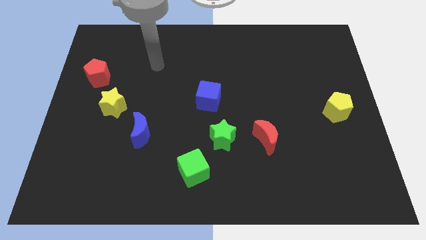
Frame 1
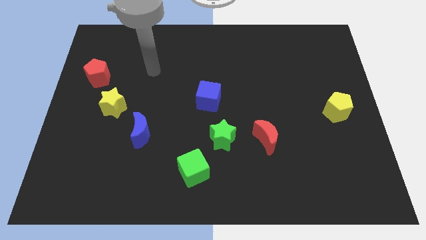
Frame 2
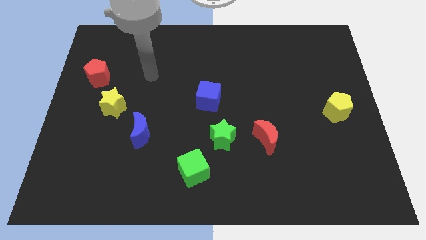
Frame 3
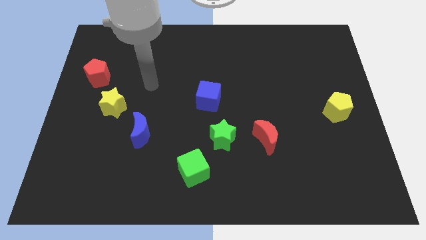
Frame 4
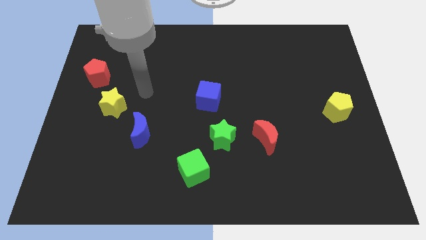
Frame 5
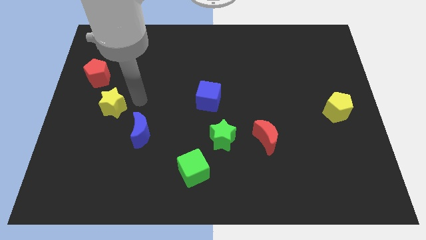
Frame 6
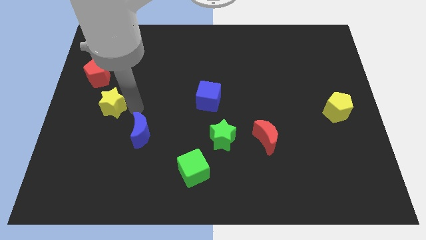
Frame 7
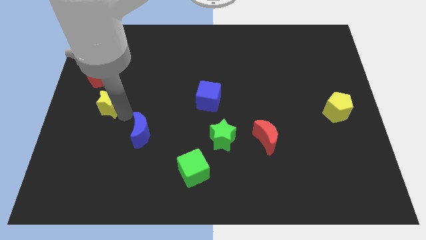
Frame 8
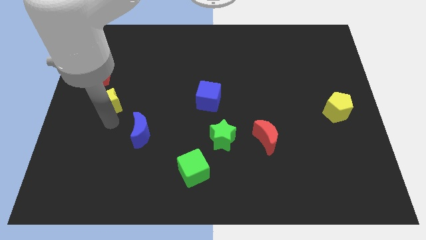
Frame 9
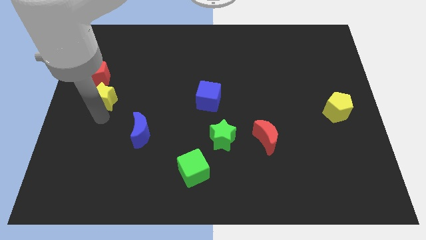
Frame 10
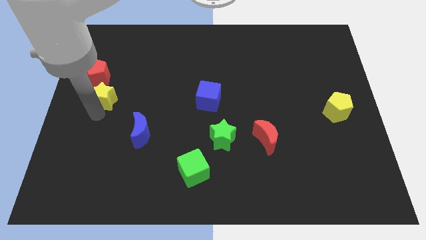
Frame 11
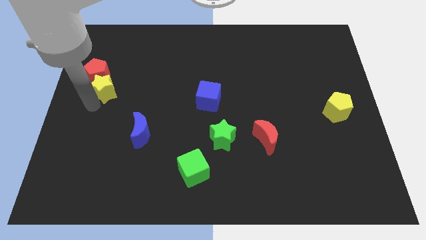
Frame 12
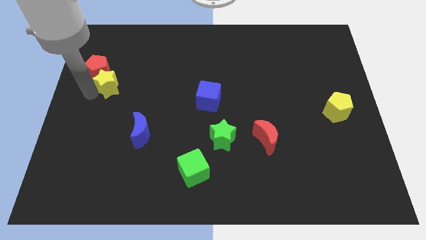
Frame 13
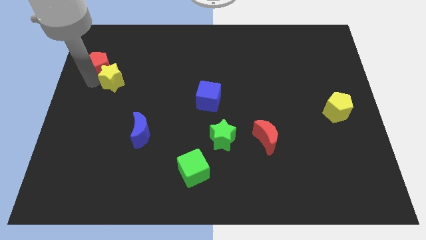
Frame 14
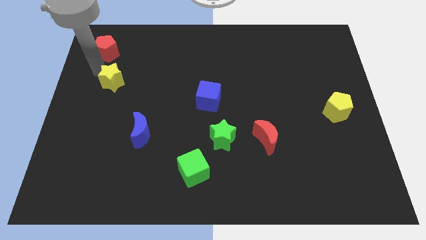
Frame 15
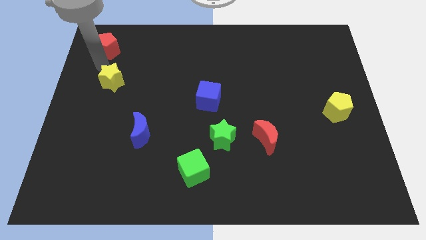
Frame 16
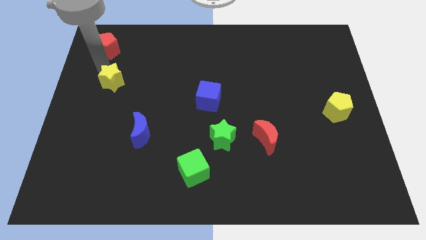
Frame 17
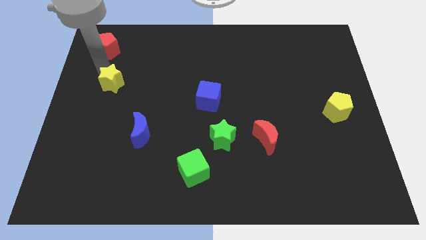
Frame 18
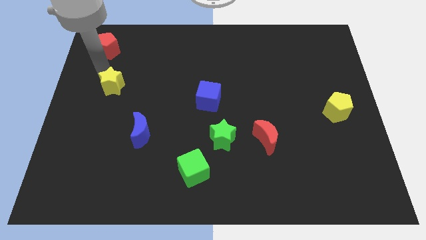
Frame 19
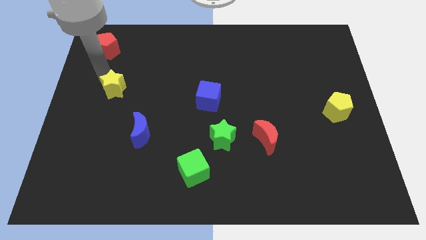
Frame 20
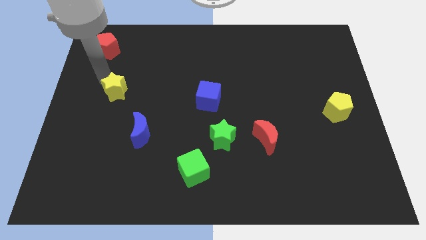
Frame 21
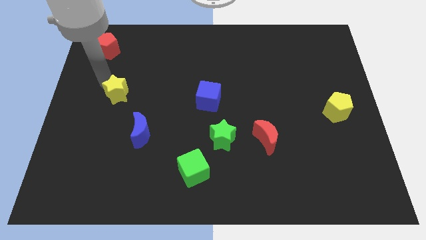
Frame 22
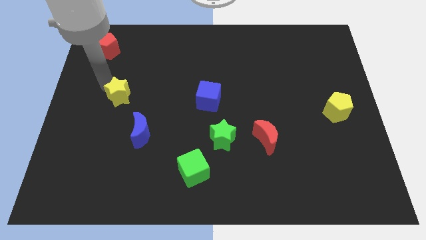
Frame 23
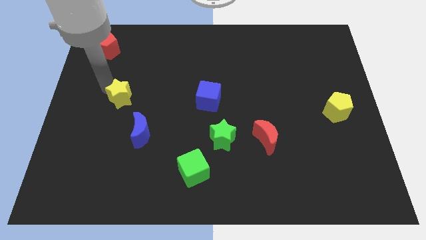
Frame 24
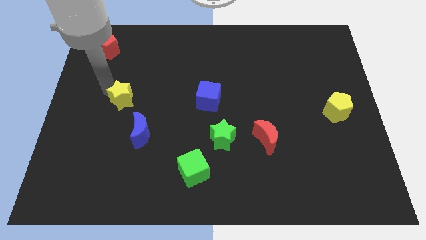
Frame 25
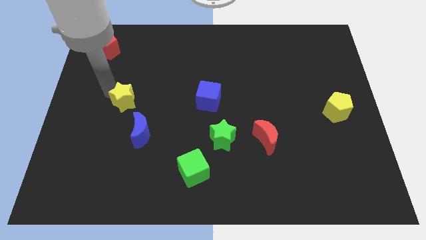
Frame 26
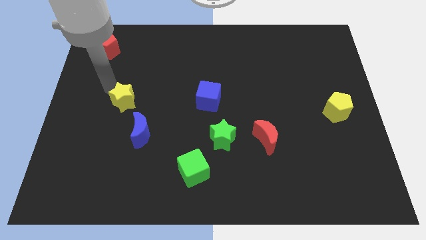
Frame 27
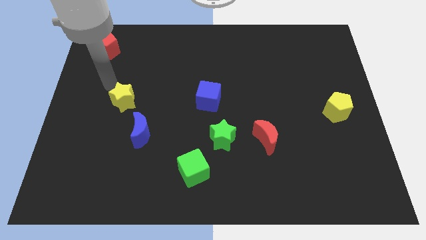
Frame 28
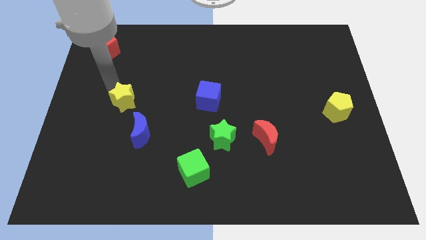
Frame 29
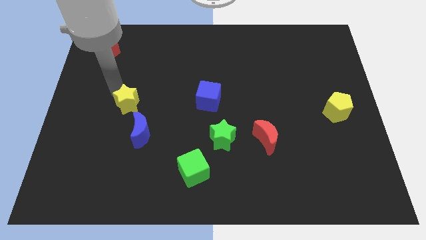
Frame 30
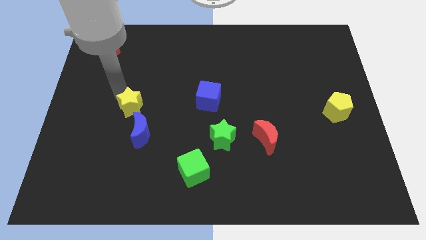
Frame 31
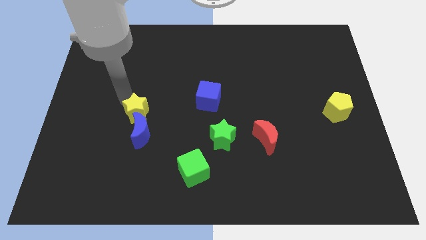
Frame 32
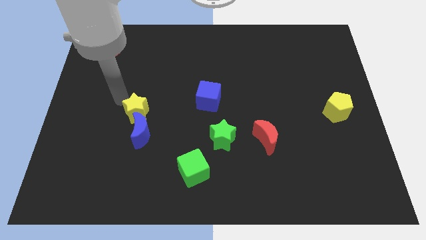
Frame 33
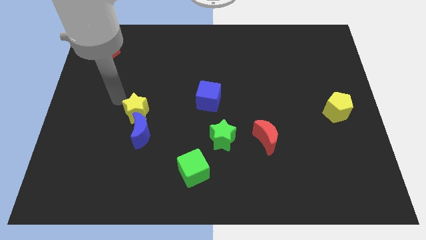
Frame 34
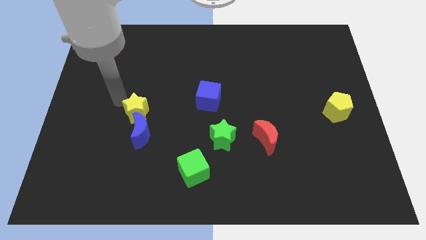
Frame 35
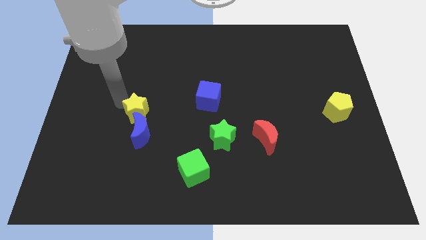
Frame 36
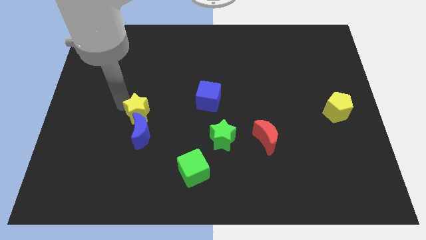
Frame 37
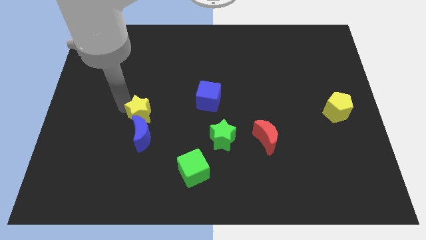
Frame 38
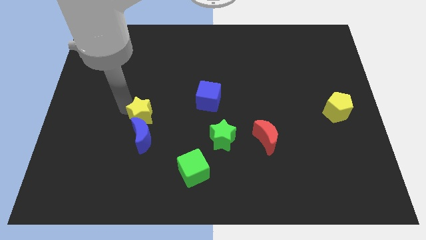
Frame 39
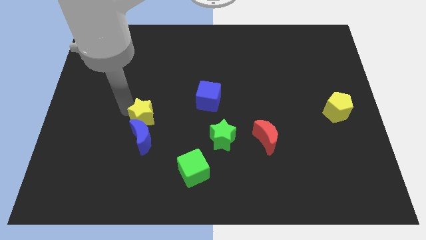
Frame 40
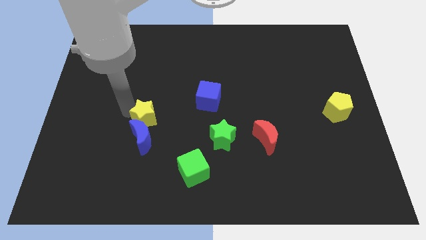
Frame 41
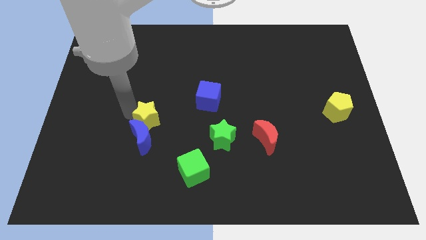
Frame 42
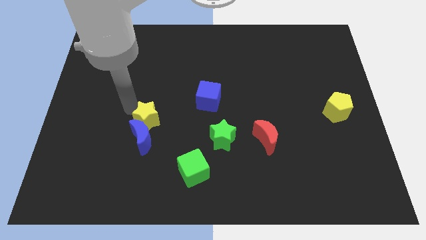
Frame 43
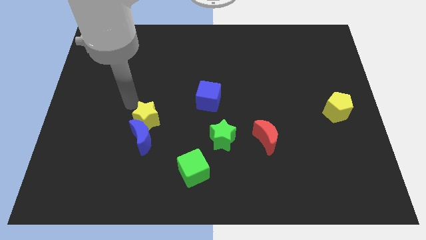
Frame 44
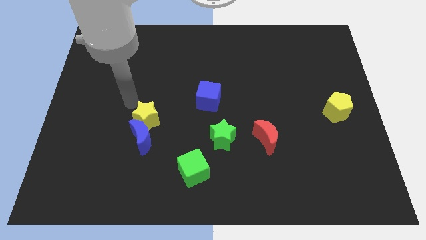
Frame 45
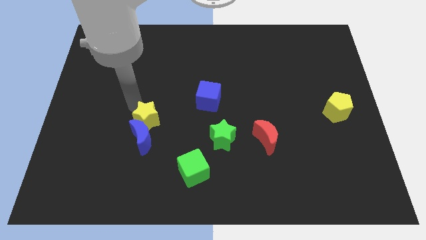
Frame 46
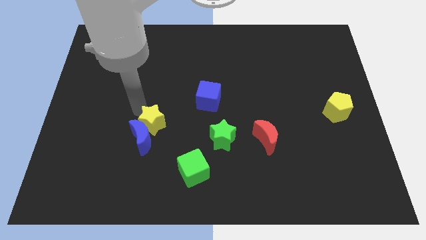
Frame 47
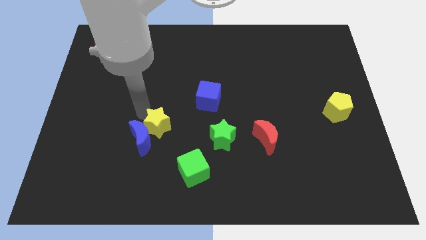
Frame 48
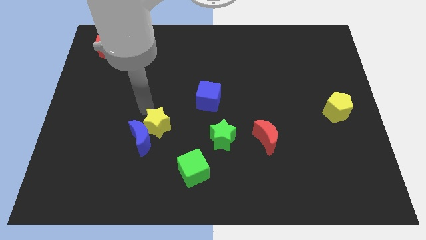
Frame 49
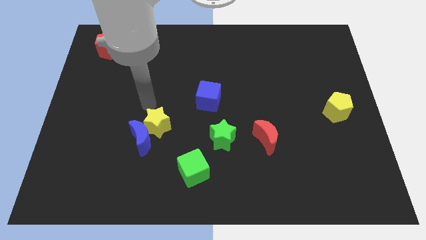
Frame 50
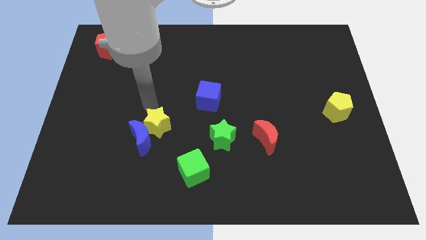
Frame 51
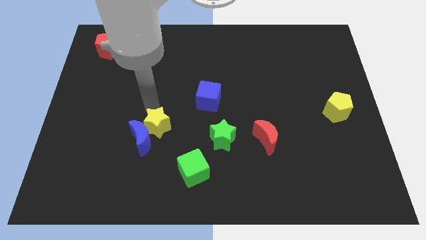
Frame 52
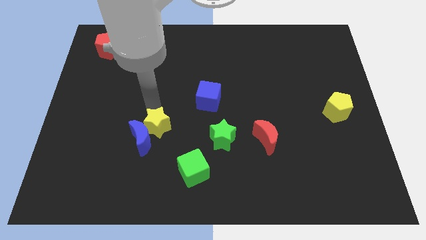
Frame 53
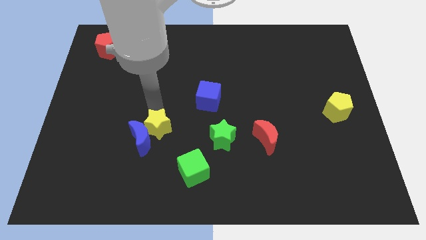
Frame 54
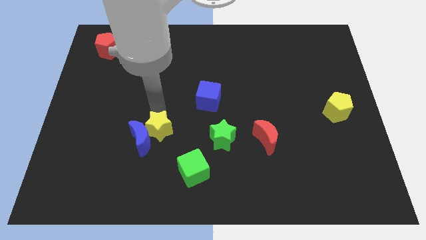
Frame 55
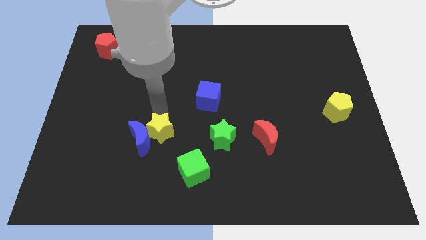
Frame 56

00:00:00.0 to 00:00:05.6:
move the yellow star diagonally up and to the left of the green cube

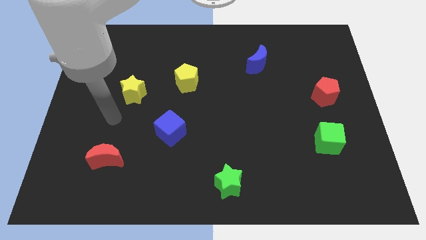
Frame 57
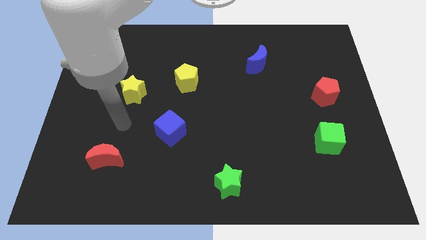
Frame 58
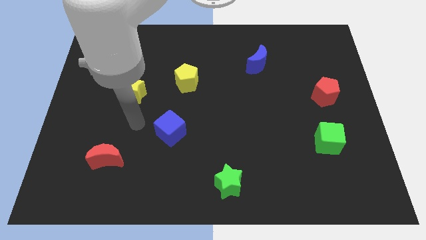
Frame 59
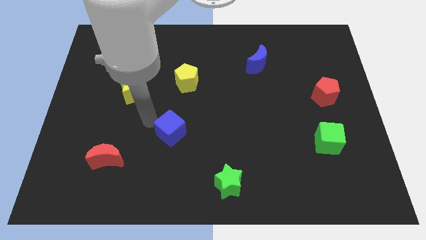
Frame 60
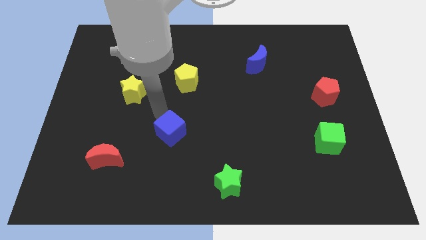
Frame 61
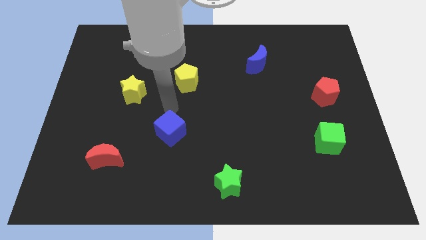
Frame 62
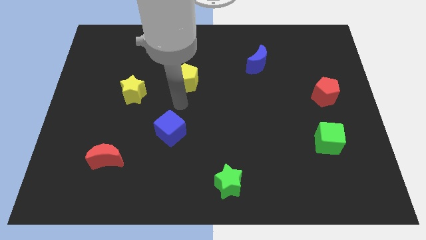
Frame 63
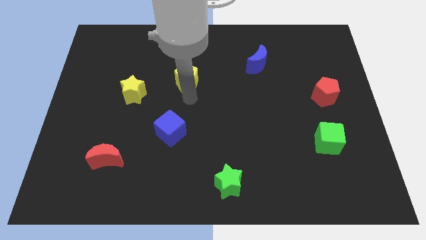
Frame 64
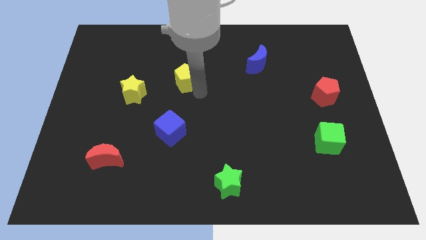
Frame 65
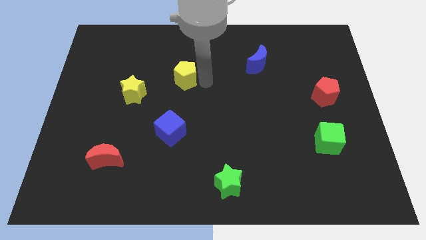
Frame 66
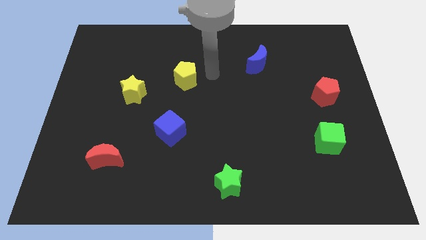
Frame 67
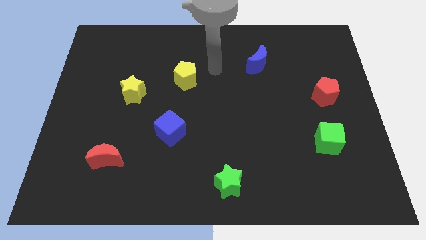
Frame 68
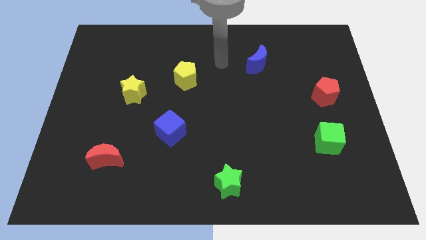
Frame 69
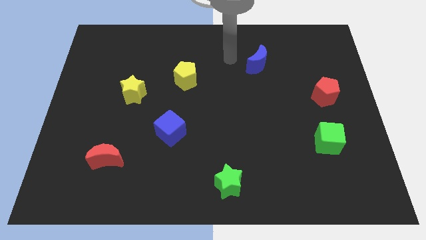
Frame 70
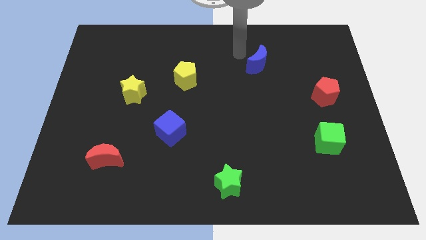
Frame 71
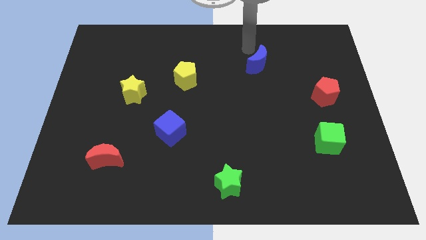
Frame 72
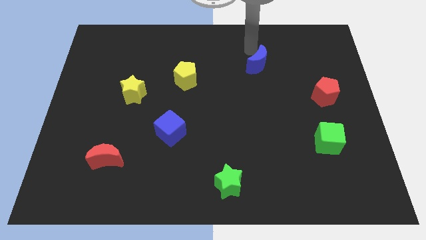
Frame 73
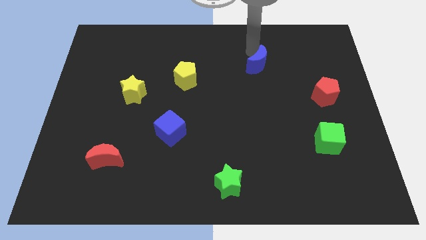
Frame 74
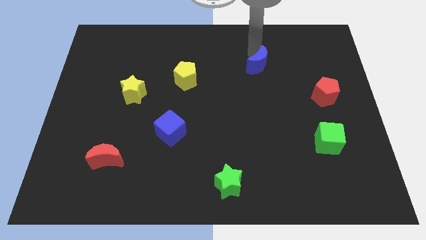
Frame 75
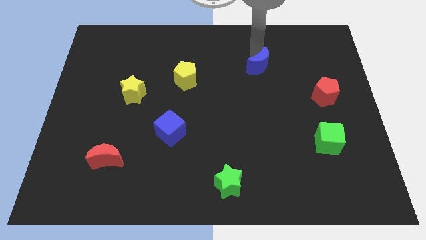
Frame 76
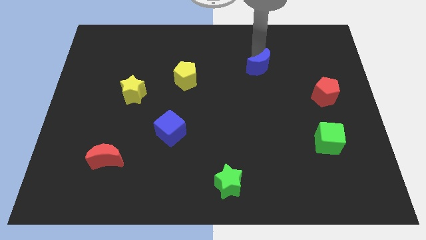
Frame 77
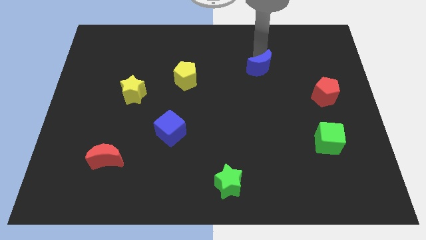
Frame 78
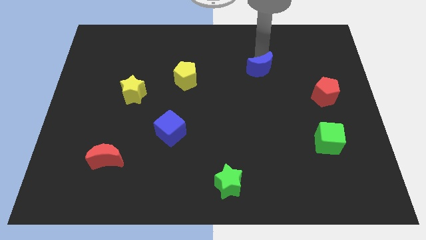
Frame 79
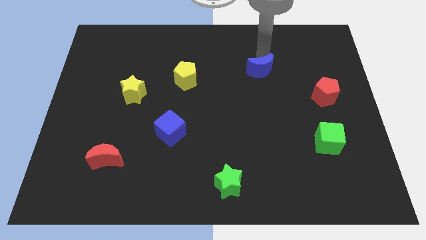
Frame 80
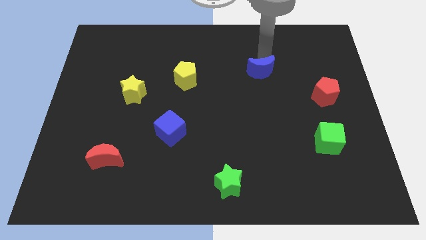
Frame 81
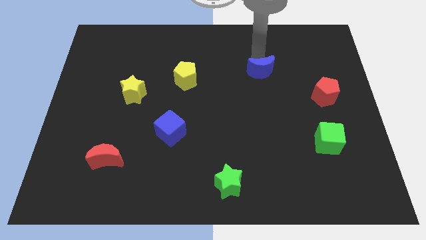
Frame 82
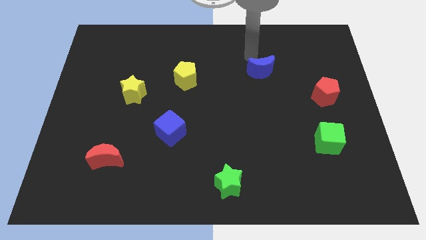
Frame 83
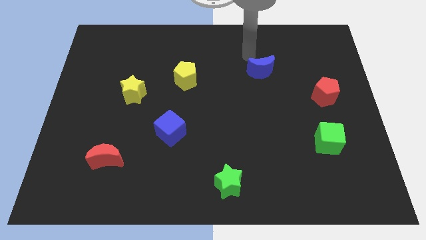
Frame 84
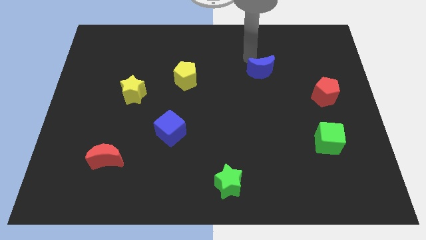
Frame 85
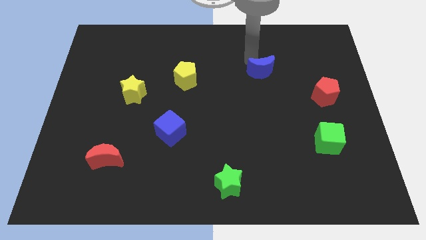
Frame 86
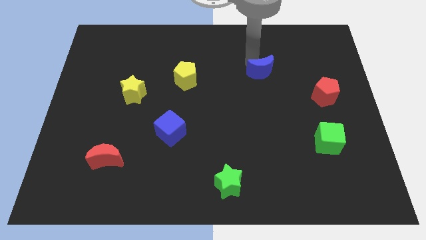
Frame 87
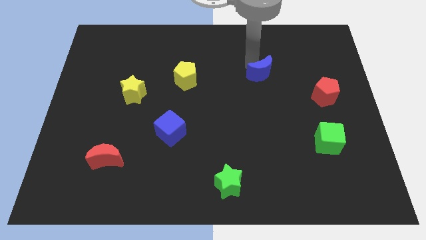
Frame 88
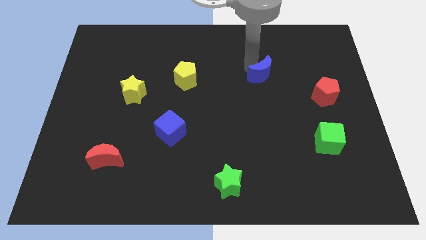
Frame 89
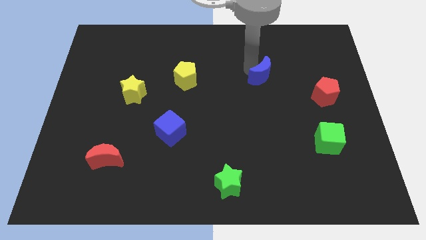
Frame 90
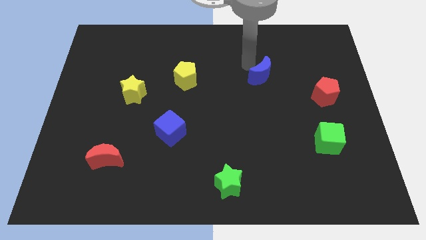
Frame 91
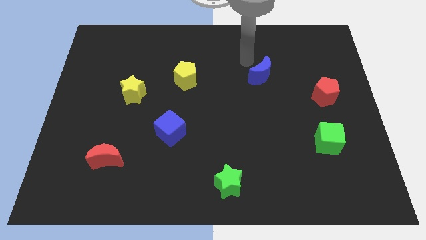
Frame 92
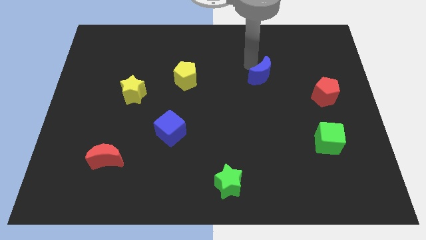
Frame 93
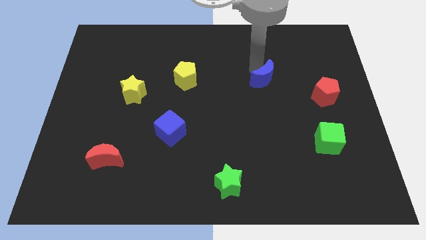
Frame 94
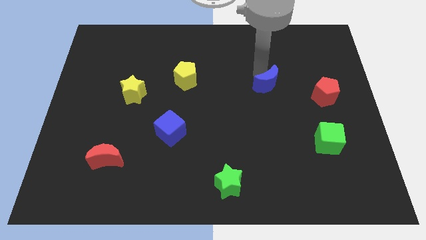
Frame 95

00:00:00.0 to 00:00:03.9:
push the blue moon left of the red pentagon
